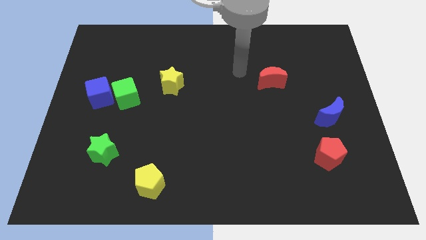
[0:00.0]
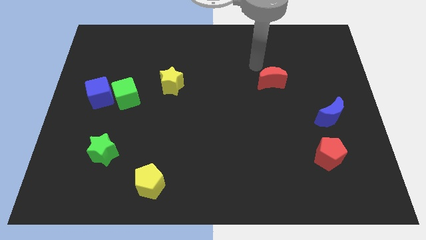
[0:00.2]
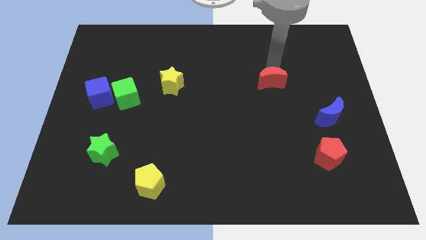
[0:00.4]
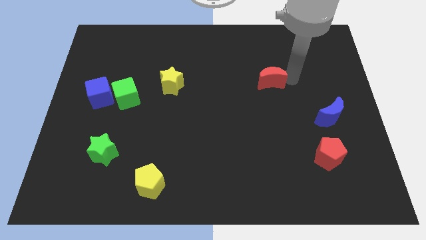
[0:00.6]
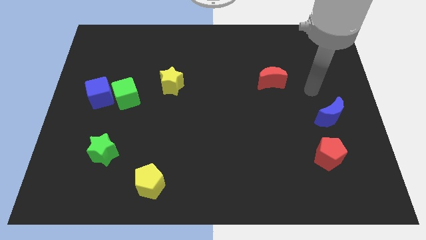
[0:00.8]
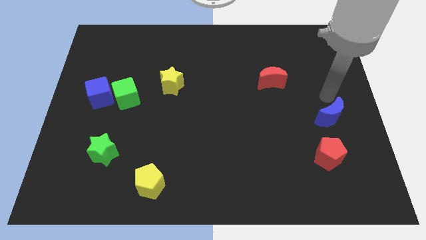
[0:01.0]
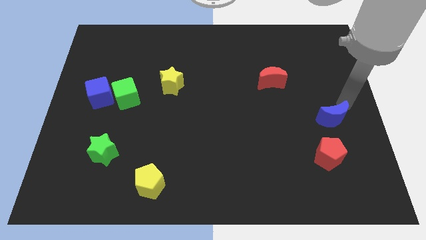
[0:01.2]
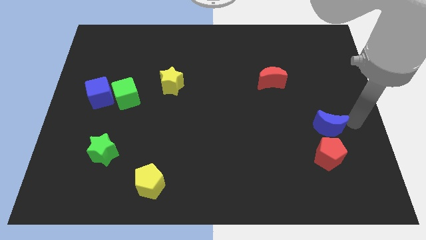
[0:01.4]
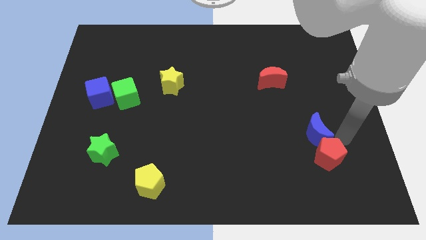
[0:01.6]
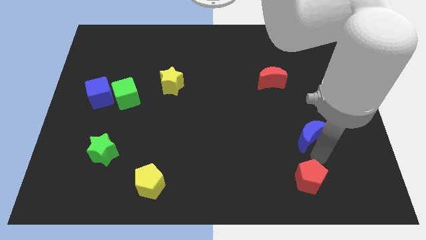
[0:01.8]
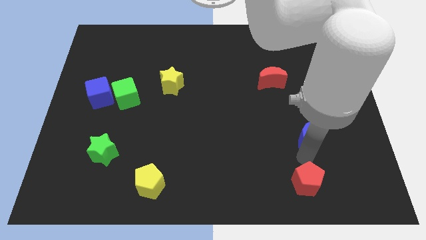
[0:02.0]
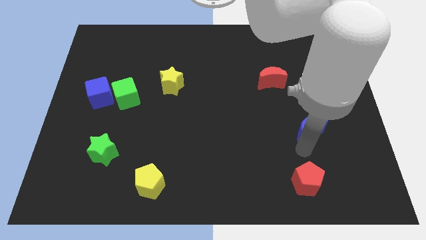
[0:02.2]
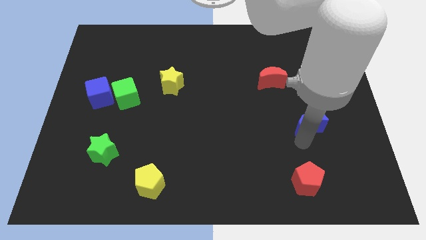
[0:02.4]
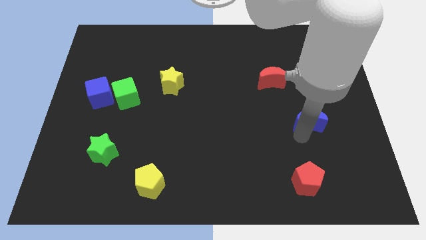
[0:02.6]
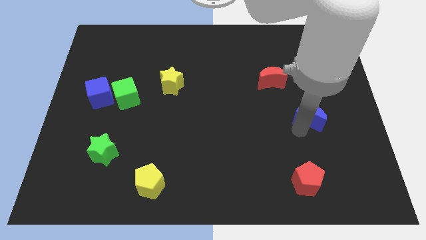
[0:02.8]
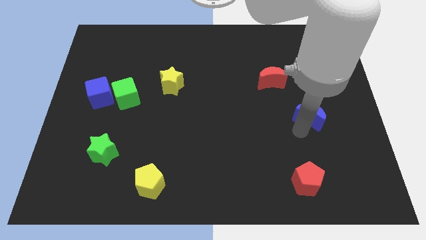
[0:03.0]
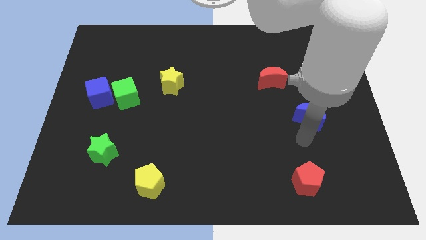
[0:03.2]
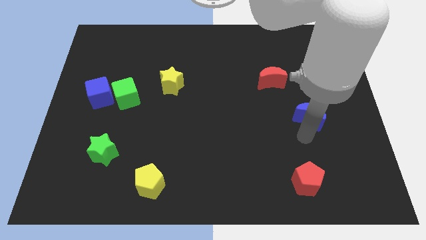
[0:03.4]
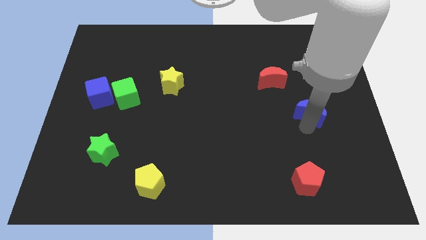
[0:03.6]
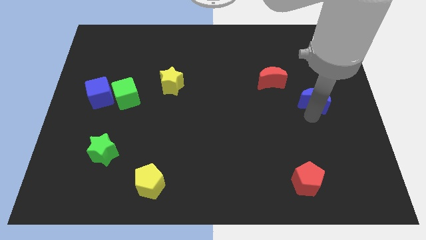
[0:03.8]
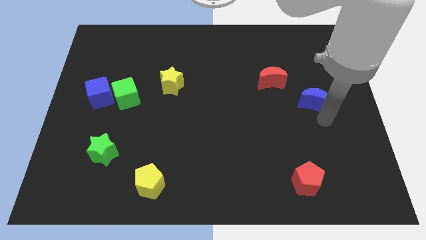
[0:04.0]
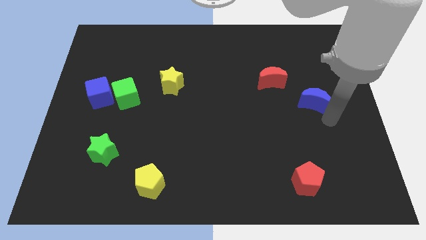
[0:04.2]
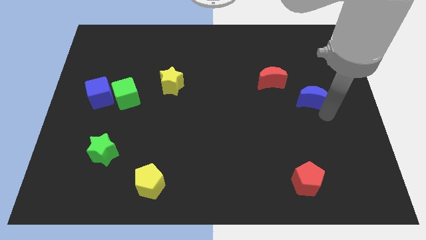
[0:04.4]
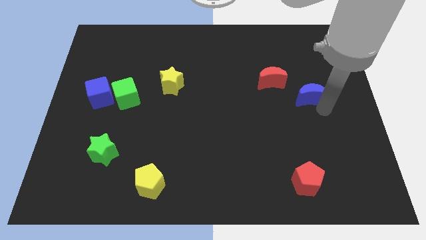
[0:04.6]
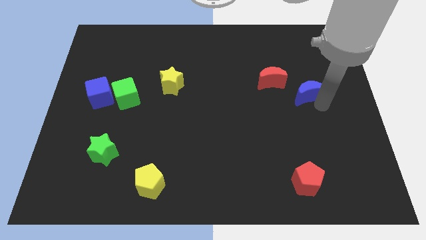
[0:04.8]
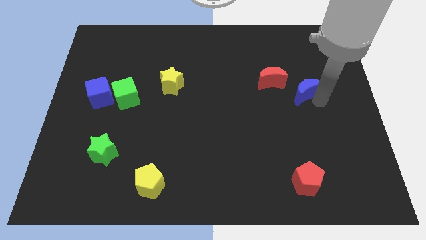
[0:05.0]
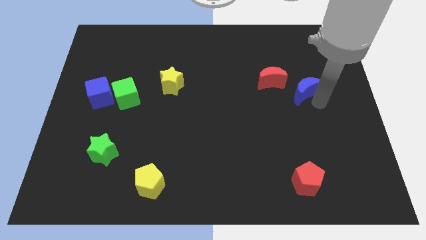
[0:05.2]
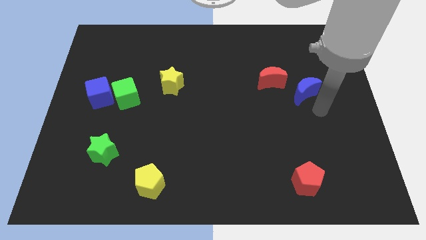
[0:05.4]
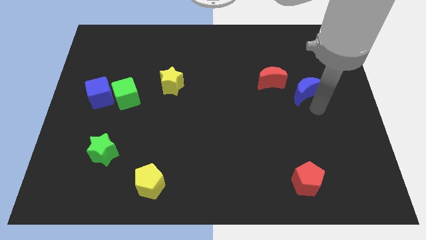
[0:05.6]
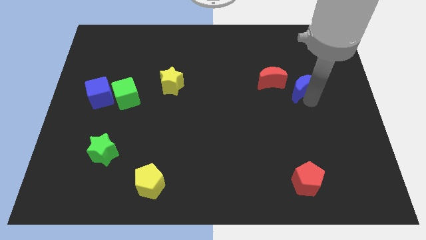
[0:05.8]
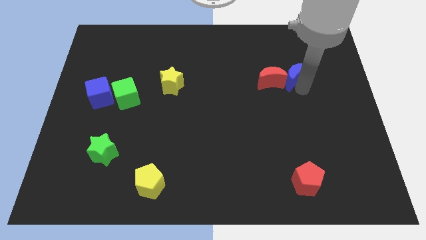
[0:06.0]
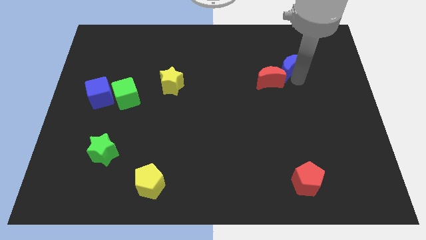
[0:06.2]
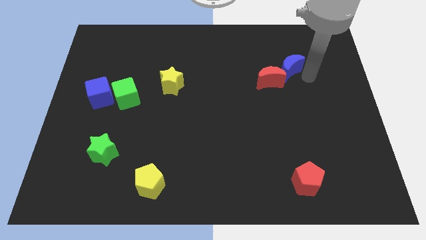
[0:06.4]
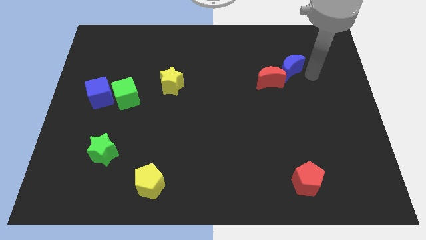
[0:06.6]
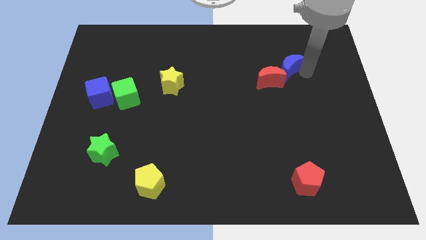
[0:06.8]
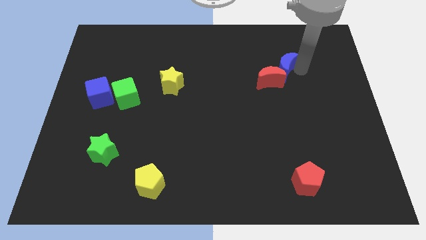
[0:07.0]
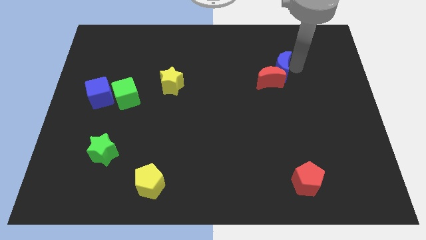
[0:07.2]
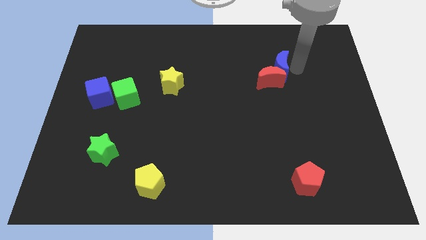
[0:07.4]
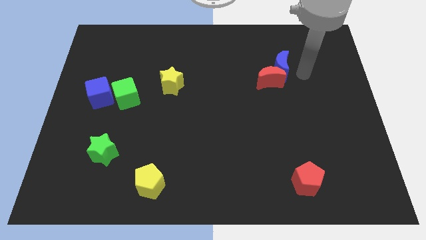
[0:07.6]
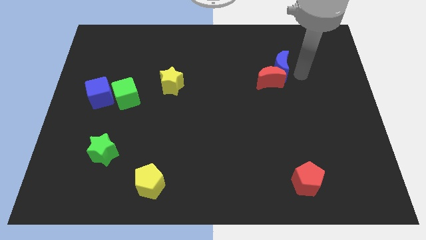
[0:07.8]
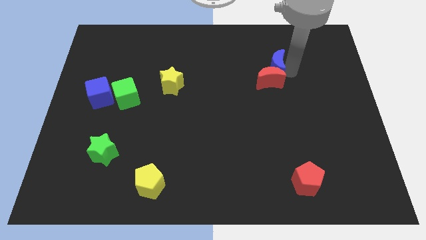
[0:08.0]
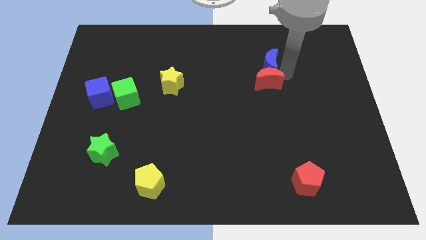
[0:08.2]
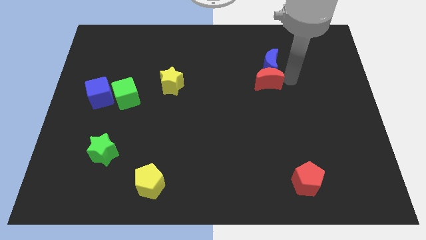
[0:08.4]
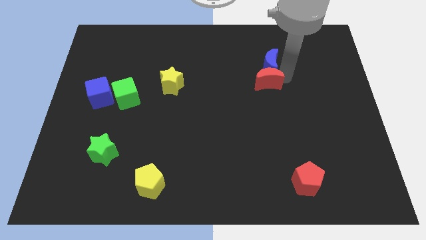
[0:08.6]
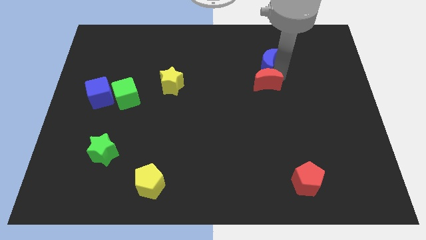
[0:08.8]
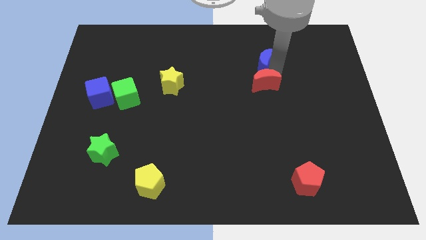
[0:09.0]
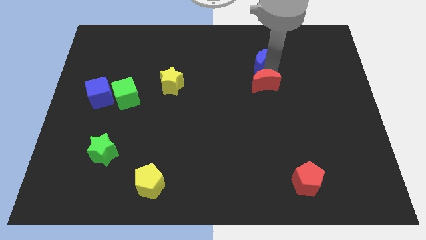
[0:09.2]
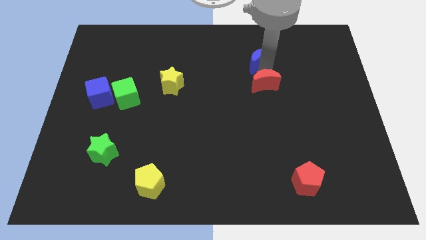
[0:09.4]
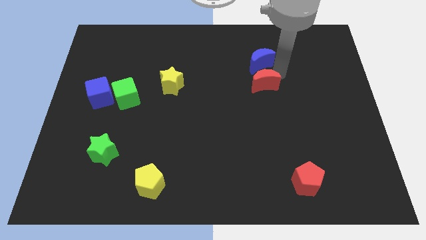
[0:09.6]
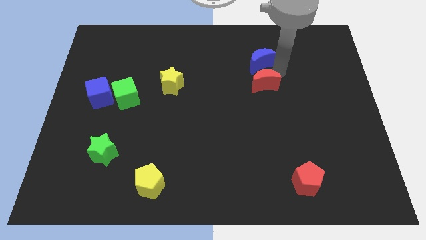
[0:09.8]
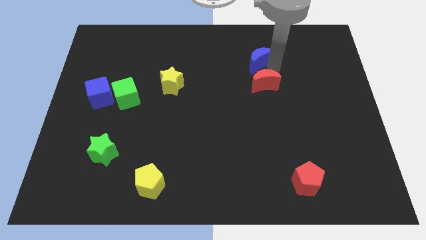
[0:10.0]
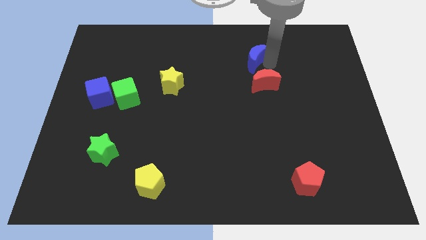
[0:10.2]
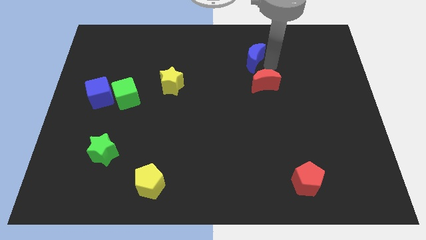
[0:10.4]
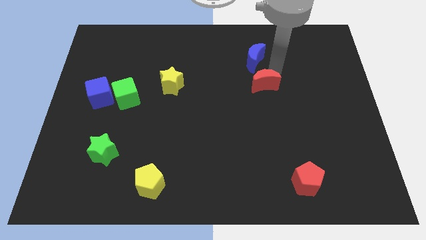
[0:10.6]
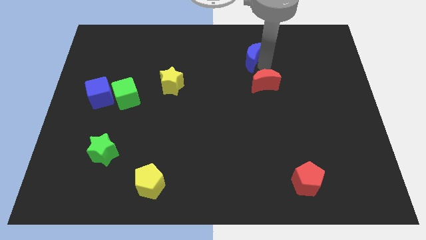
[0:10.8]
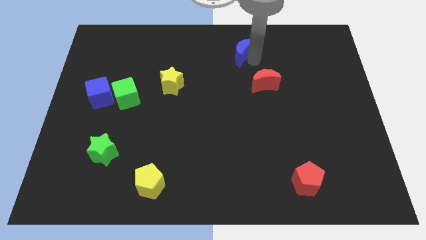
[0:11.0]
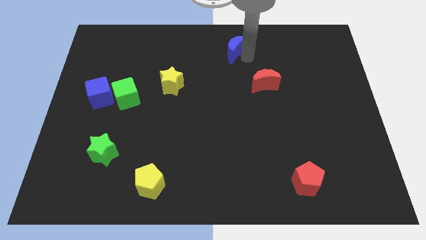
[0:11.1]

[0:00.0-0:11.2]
slide the blue moon to the top
